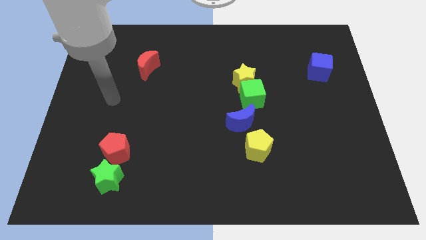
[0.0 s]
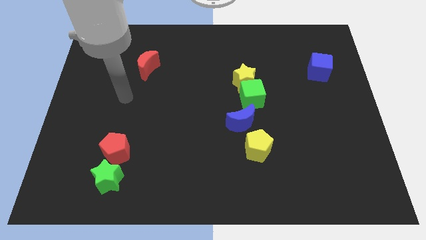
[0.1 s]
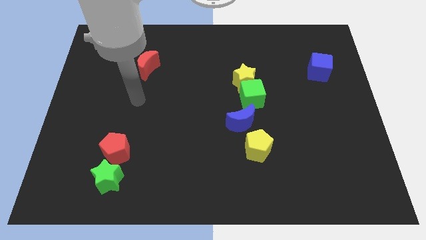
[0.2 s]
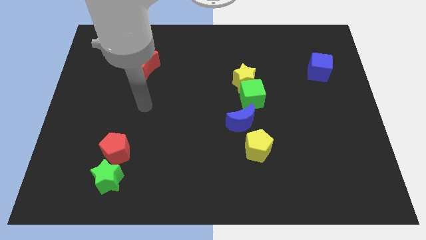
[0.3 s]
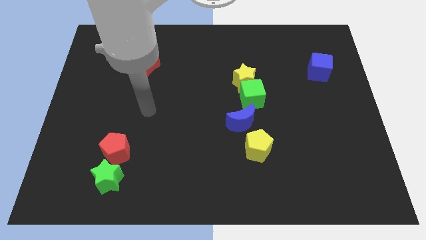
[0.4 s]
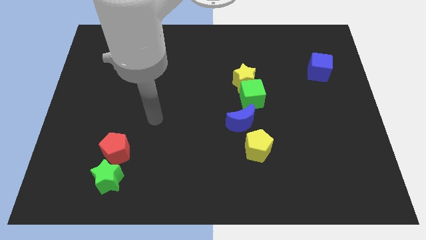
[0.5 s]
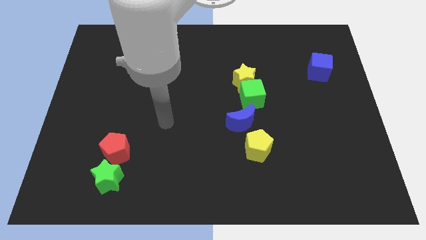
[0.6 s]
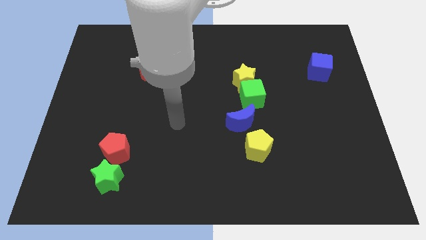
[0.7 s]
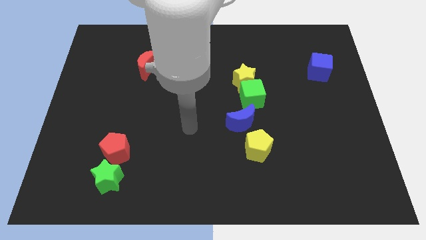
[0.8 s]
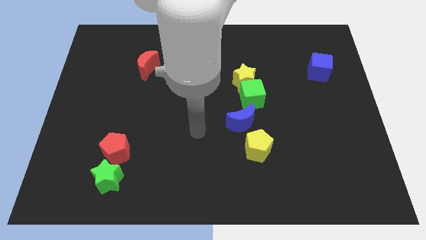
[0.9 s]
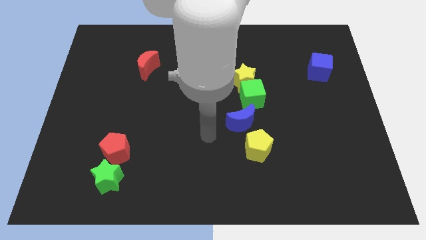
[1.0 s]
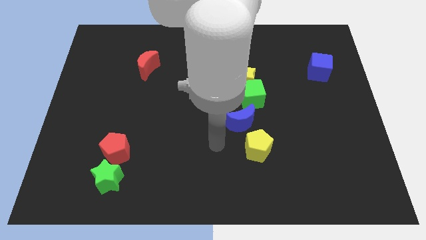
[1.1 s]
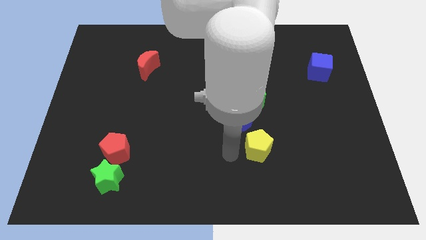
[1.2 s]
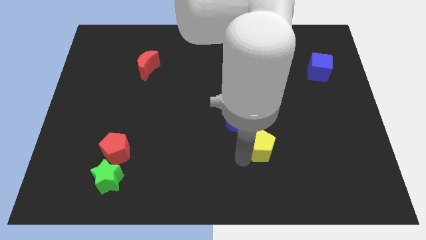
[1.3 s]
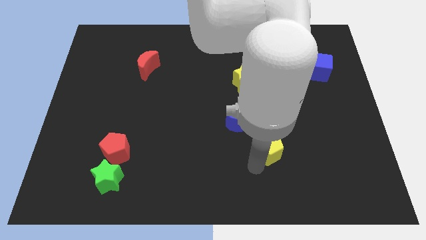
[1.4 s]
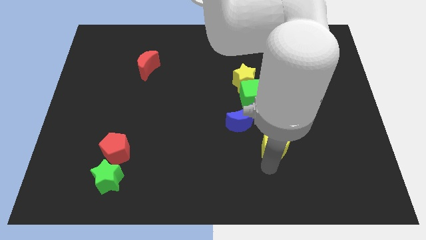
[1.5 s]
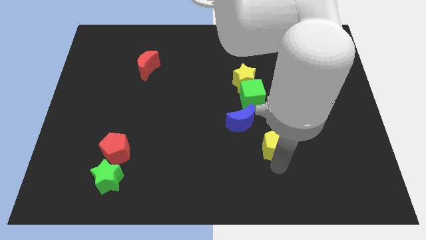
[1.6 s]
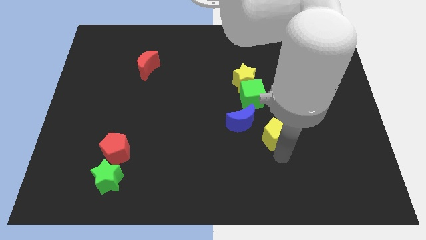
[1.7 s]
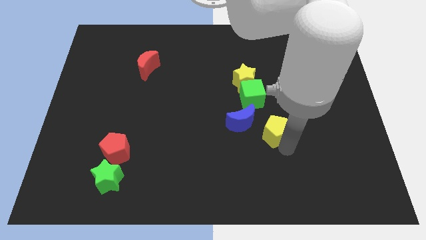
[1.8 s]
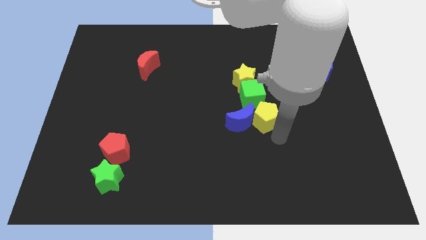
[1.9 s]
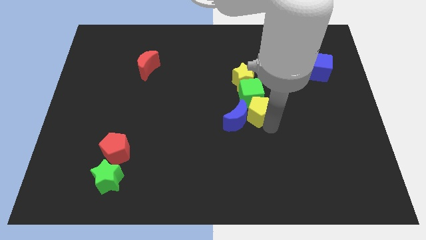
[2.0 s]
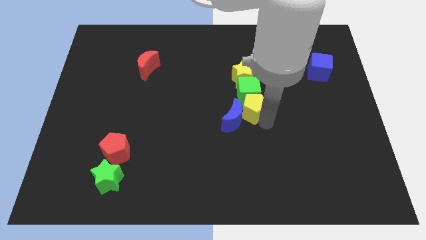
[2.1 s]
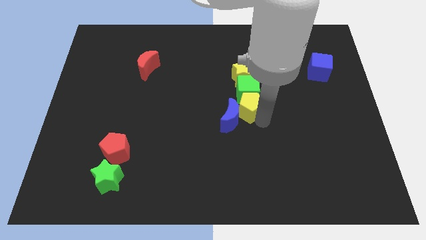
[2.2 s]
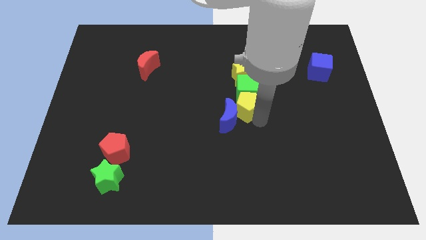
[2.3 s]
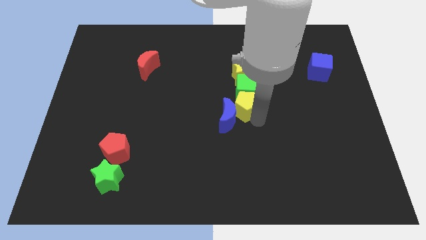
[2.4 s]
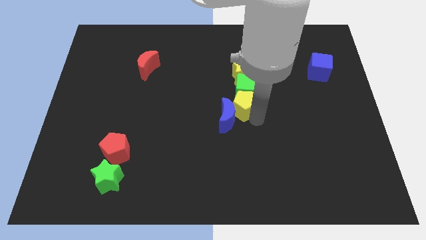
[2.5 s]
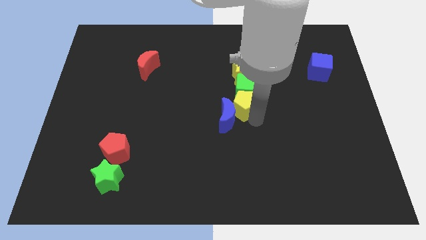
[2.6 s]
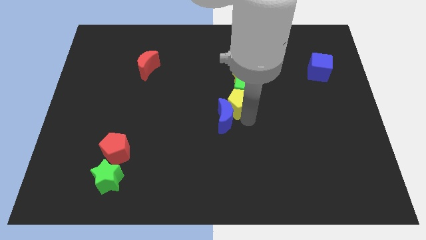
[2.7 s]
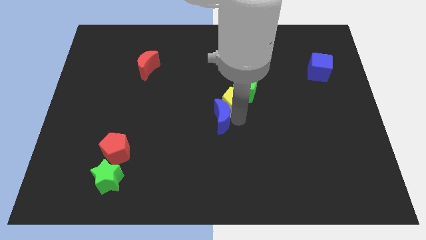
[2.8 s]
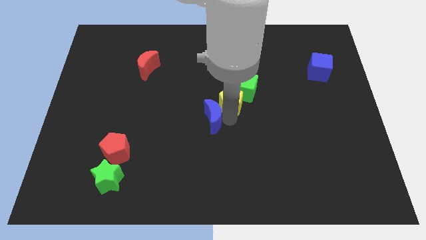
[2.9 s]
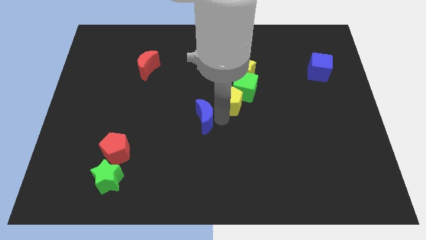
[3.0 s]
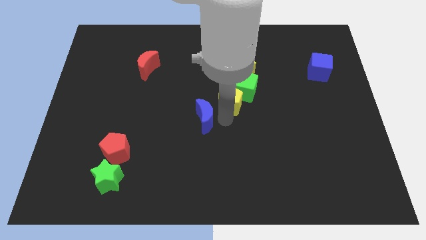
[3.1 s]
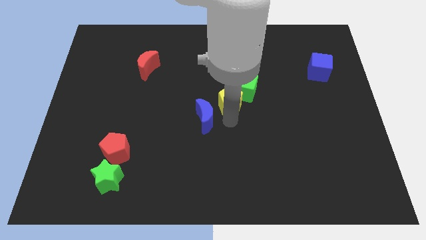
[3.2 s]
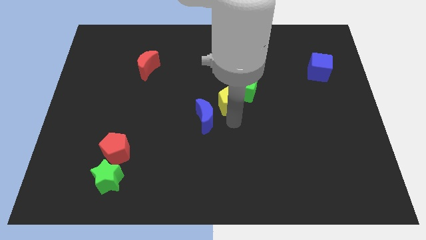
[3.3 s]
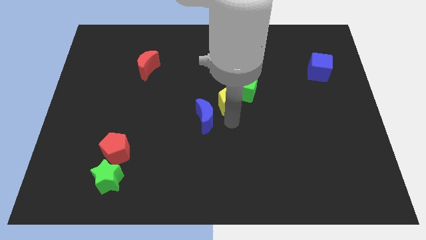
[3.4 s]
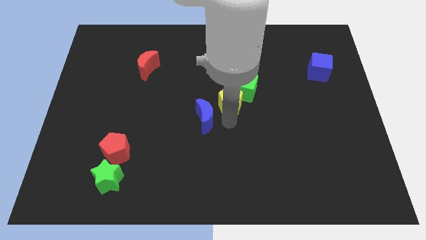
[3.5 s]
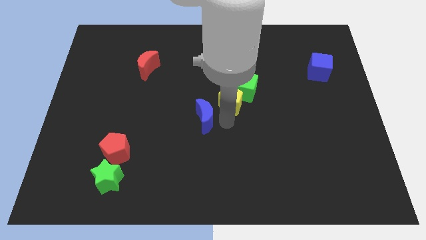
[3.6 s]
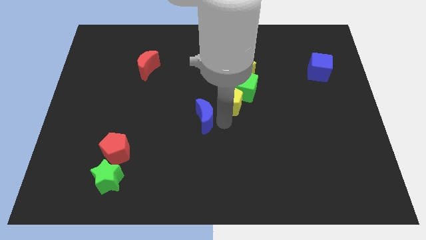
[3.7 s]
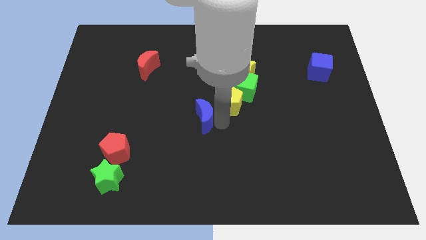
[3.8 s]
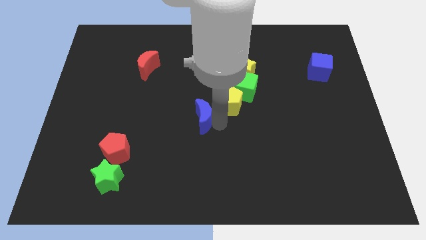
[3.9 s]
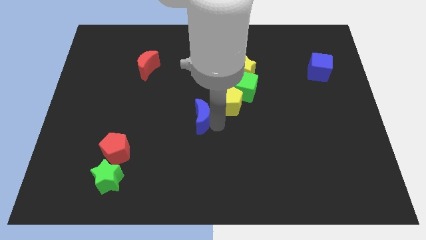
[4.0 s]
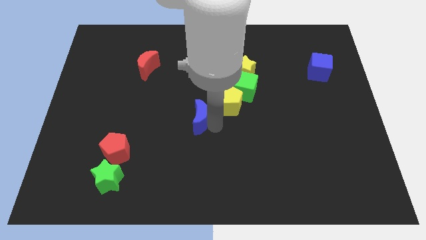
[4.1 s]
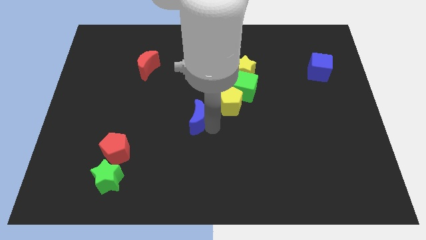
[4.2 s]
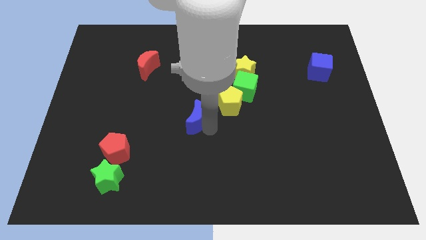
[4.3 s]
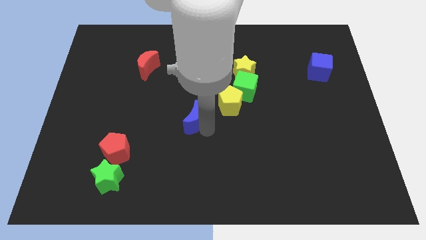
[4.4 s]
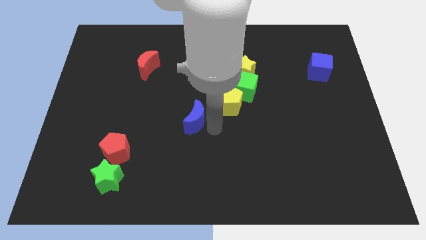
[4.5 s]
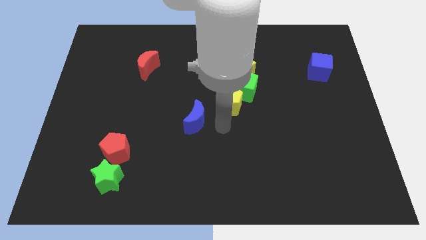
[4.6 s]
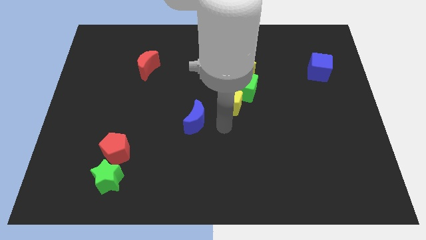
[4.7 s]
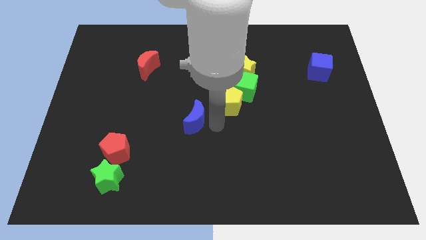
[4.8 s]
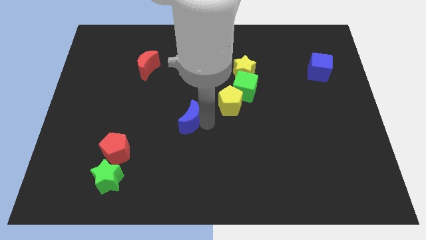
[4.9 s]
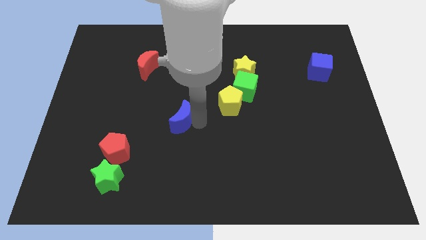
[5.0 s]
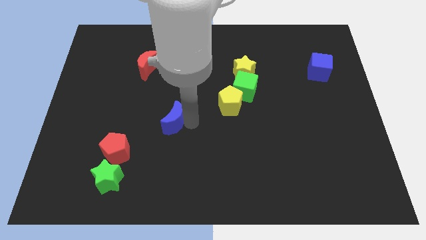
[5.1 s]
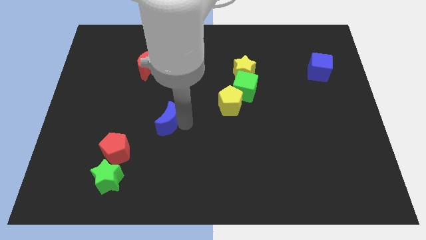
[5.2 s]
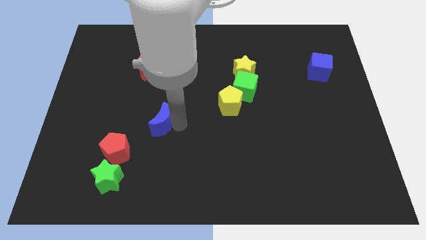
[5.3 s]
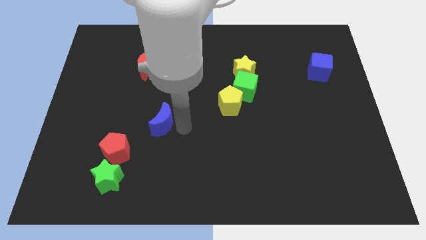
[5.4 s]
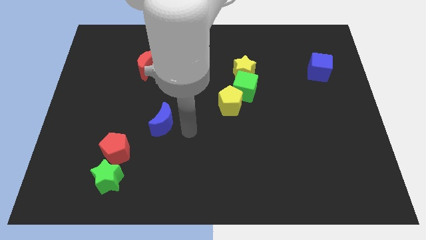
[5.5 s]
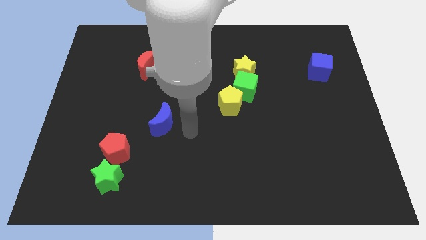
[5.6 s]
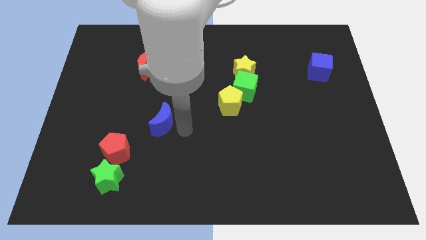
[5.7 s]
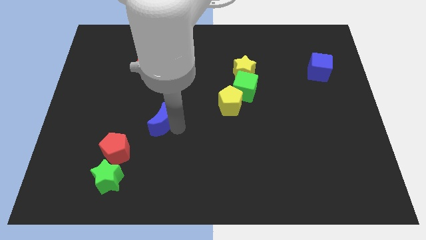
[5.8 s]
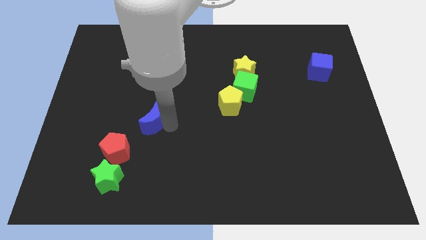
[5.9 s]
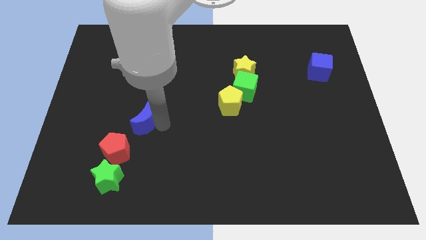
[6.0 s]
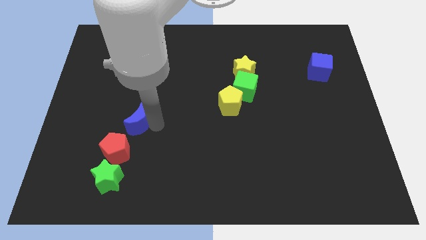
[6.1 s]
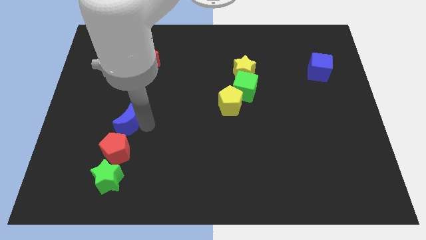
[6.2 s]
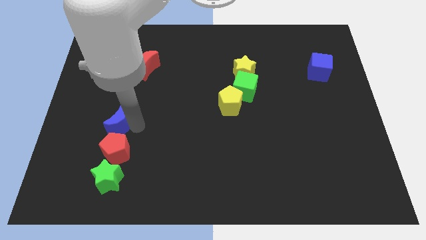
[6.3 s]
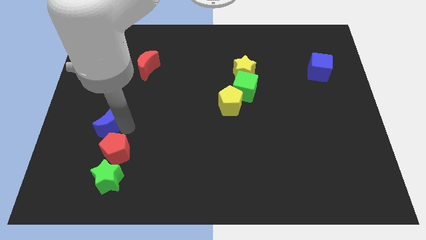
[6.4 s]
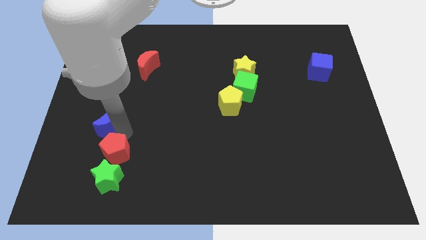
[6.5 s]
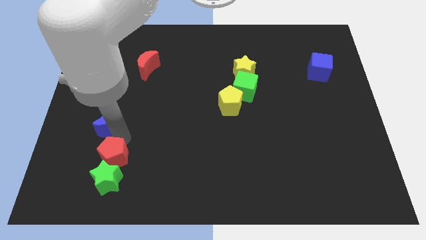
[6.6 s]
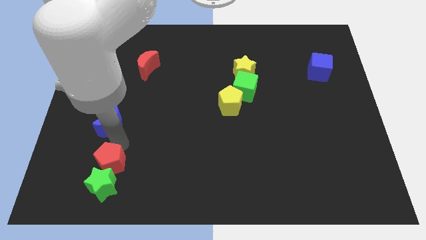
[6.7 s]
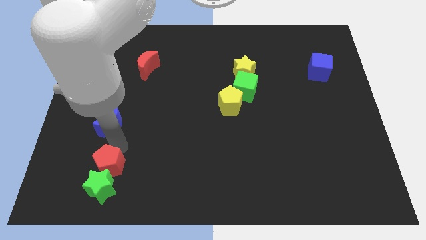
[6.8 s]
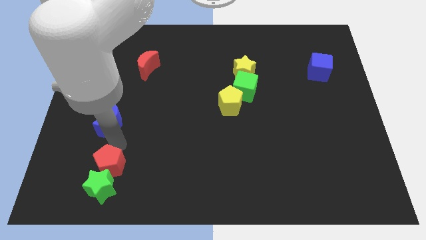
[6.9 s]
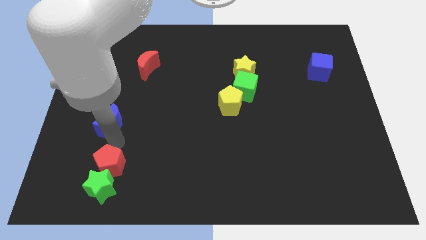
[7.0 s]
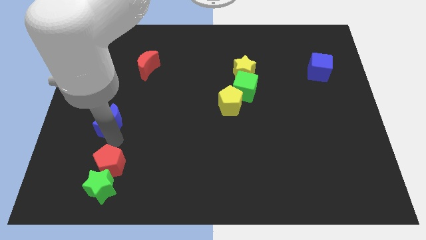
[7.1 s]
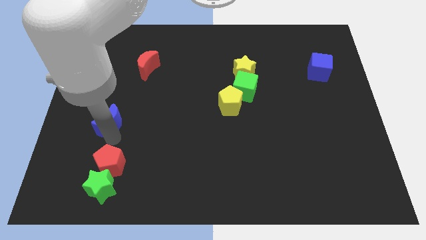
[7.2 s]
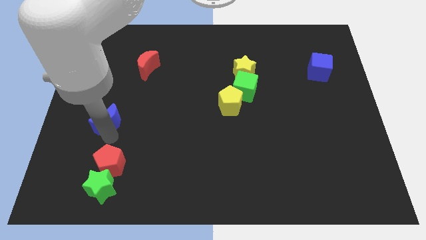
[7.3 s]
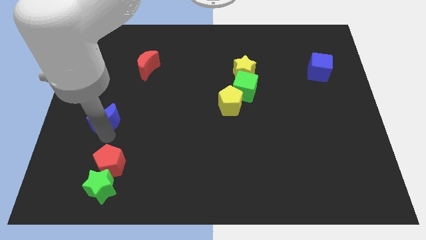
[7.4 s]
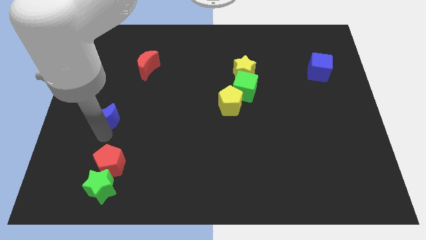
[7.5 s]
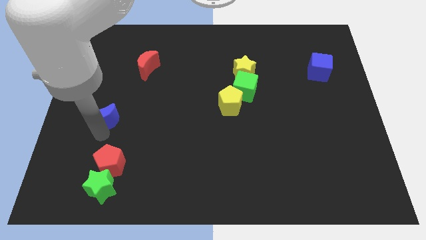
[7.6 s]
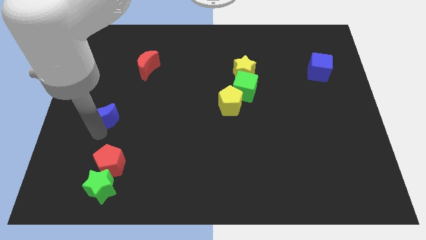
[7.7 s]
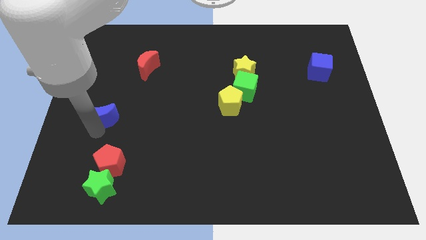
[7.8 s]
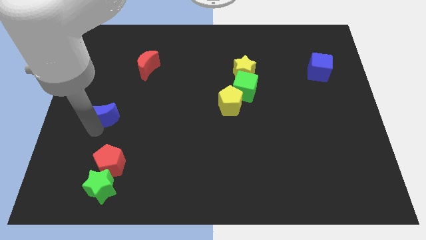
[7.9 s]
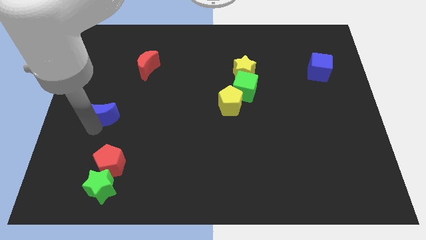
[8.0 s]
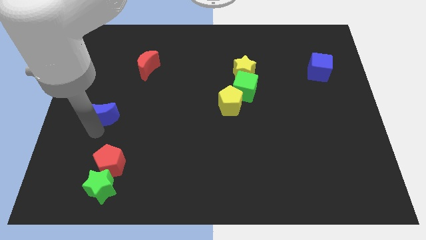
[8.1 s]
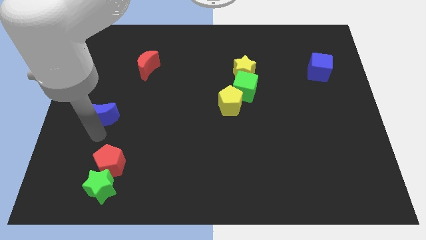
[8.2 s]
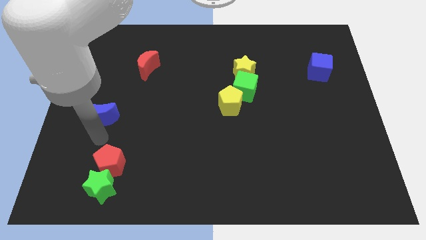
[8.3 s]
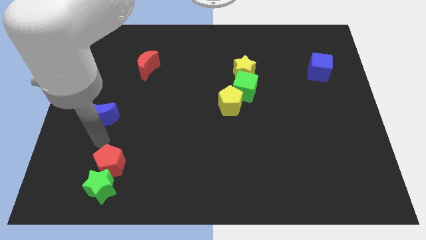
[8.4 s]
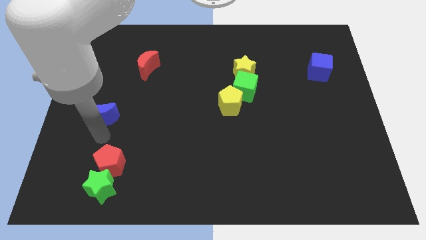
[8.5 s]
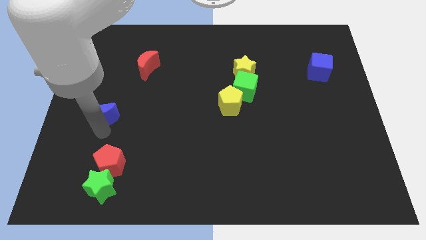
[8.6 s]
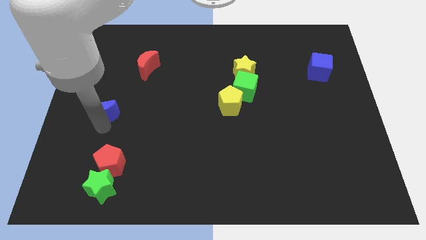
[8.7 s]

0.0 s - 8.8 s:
move the blue moon to the left side of the board
